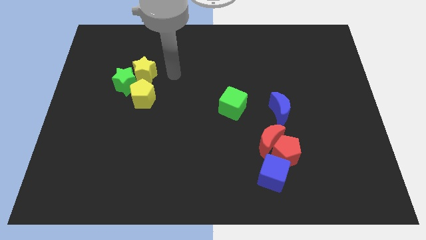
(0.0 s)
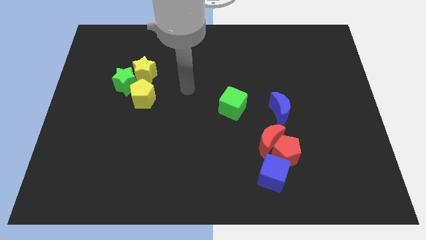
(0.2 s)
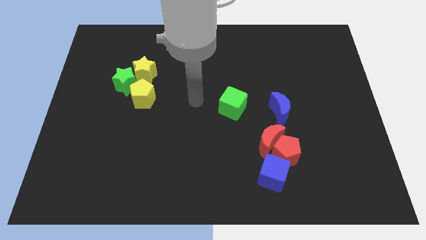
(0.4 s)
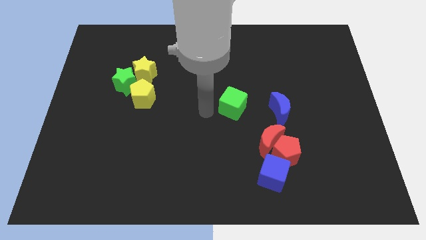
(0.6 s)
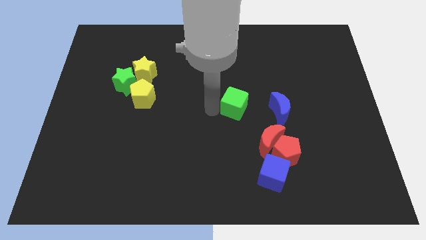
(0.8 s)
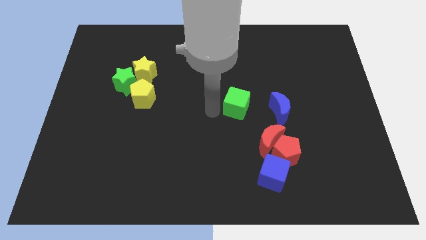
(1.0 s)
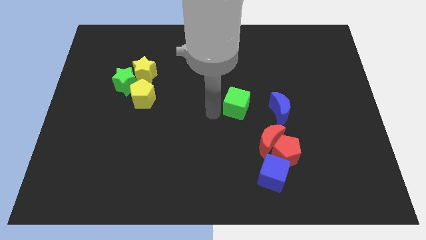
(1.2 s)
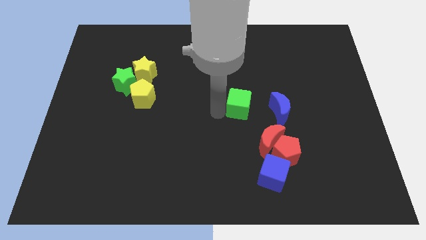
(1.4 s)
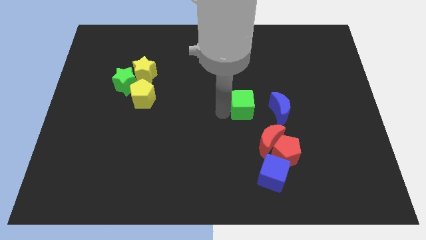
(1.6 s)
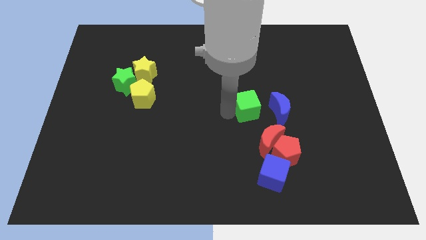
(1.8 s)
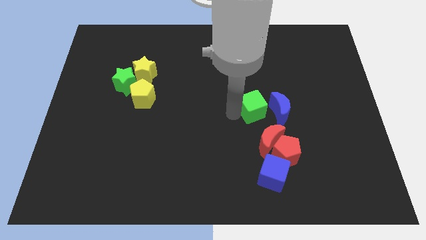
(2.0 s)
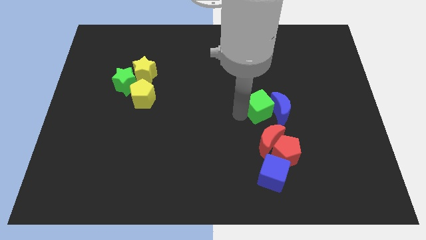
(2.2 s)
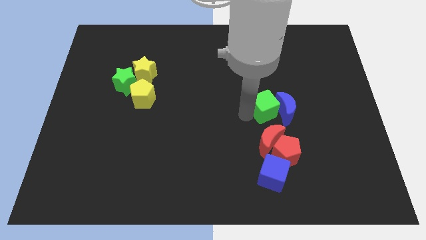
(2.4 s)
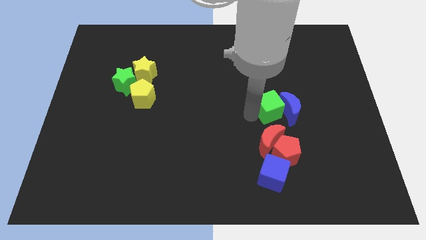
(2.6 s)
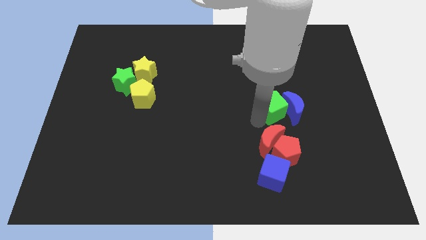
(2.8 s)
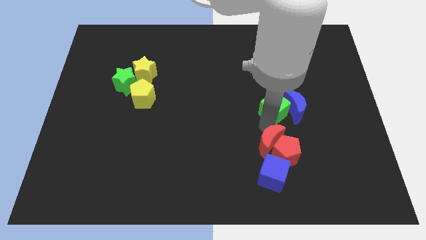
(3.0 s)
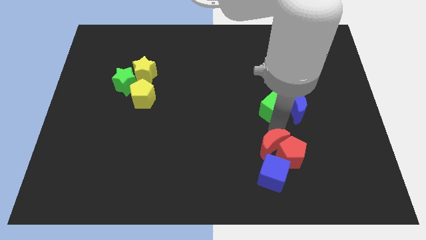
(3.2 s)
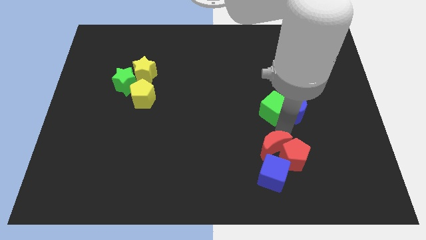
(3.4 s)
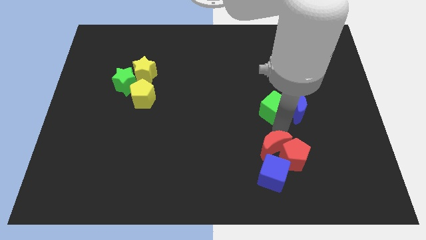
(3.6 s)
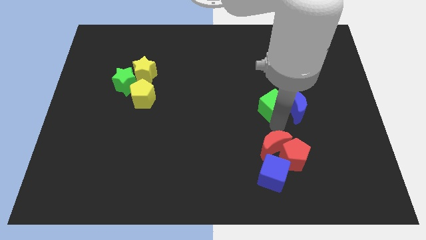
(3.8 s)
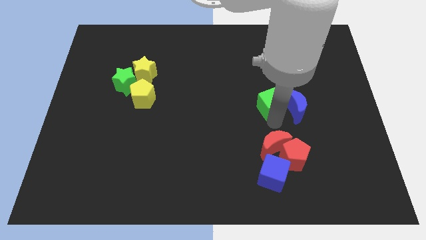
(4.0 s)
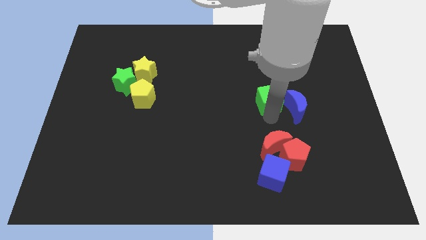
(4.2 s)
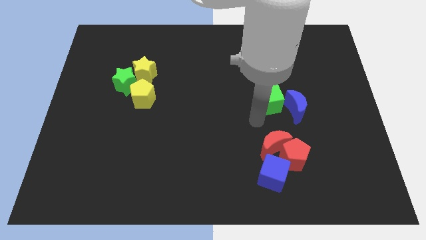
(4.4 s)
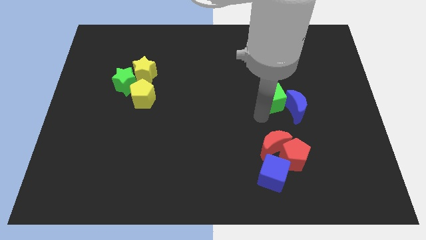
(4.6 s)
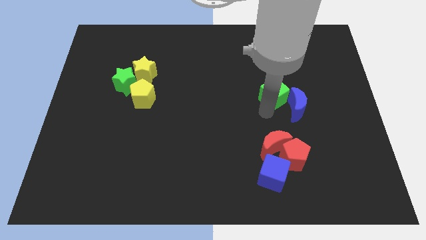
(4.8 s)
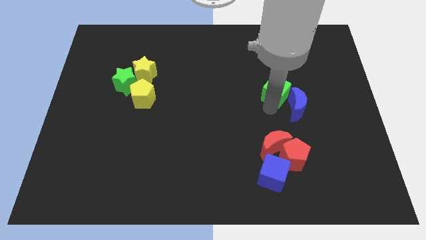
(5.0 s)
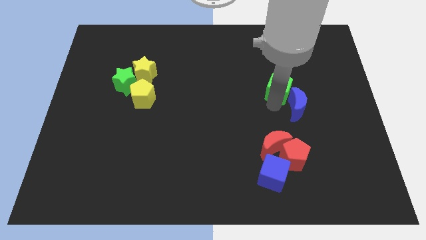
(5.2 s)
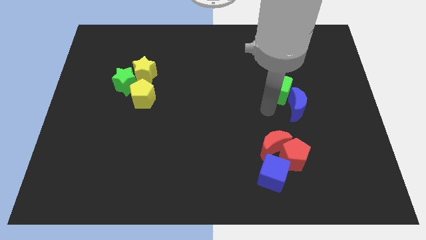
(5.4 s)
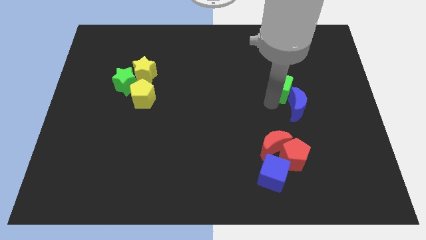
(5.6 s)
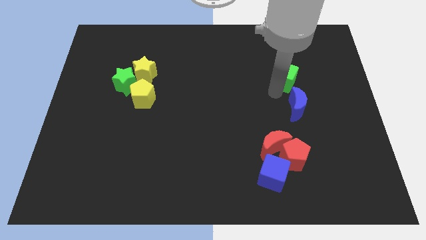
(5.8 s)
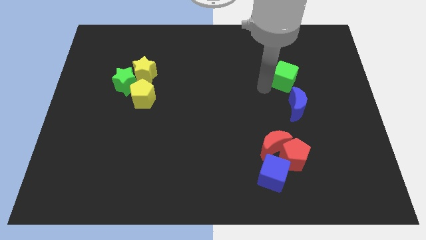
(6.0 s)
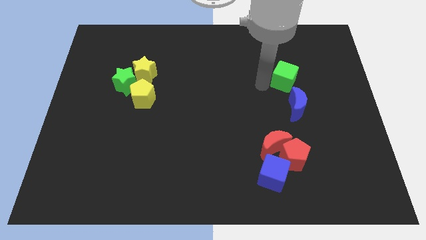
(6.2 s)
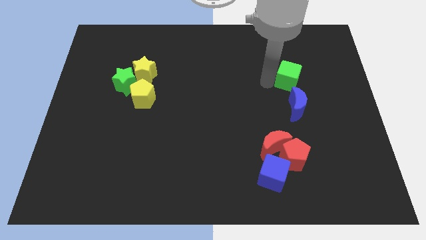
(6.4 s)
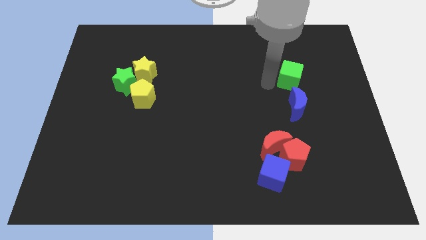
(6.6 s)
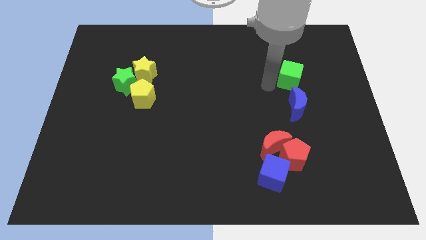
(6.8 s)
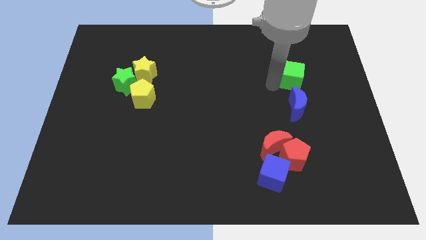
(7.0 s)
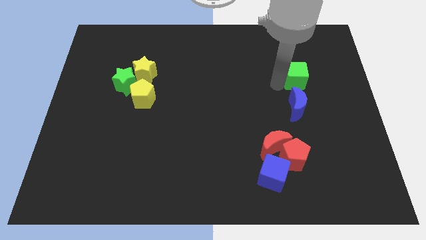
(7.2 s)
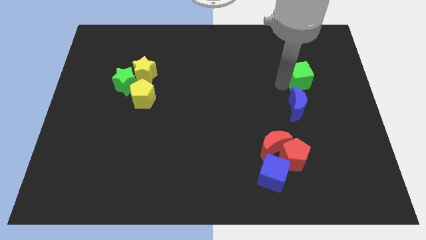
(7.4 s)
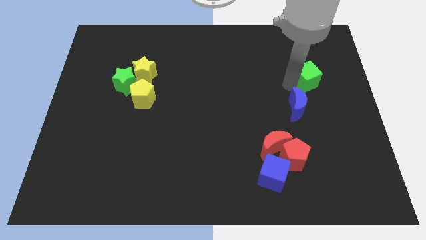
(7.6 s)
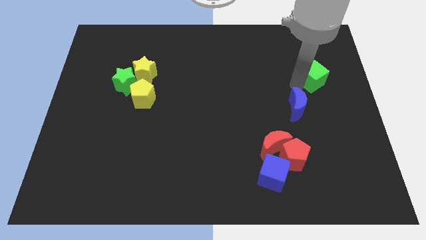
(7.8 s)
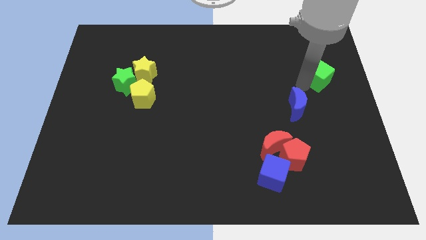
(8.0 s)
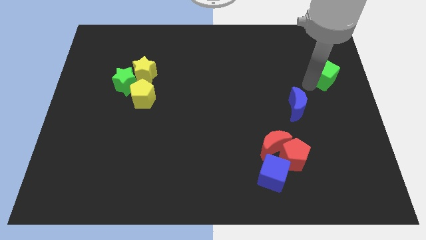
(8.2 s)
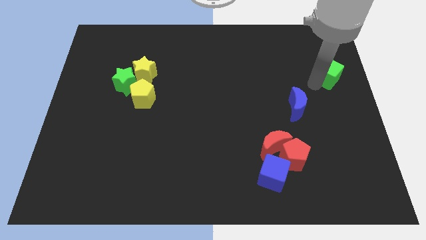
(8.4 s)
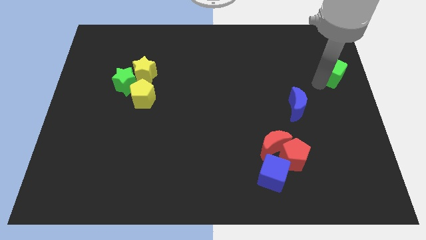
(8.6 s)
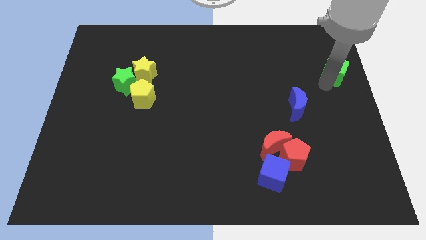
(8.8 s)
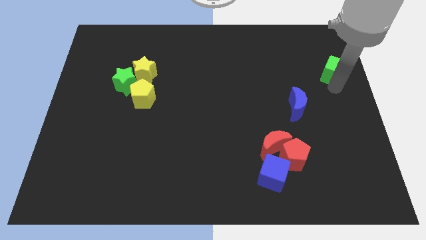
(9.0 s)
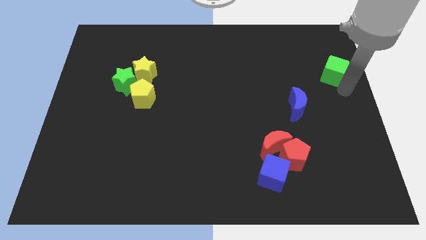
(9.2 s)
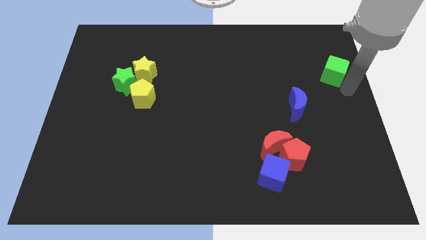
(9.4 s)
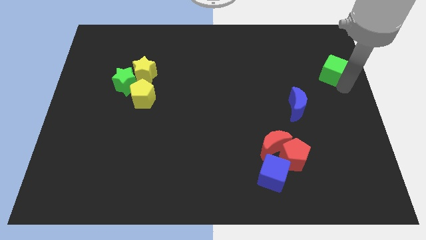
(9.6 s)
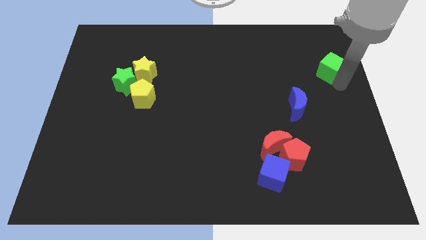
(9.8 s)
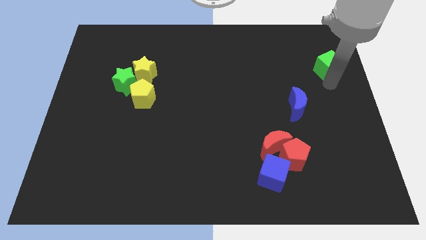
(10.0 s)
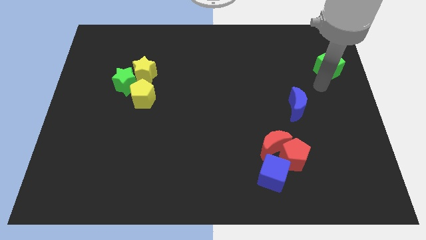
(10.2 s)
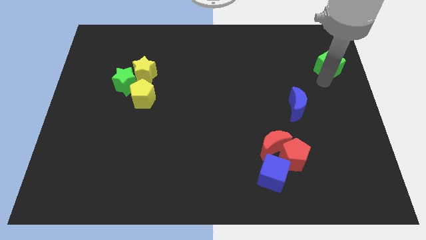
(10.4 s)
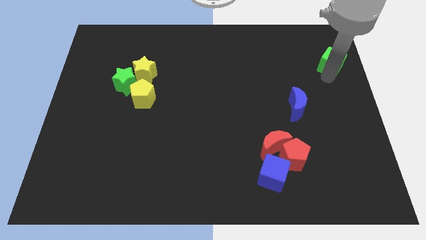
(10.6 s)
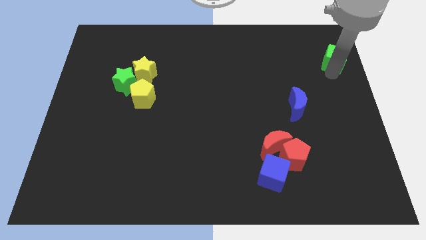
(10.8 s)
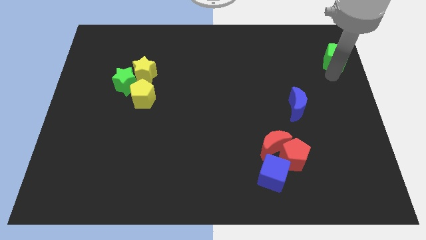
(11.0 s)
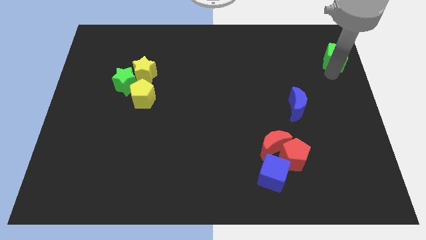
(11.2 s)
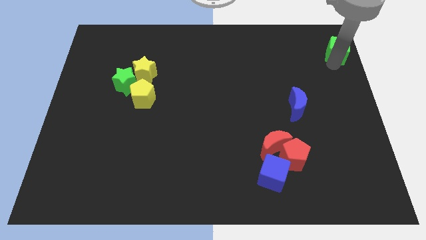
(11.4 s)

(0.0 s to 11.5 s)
slide the green cube to the top right corner

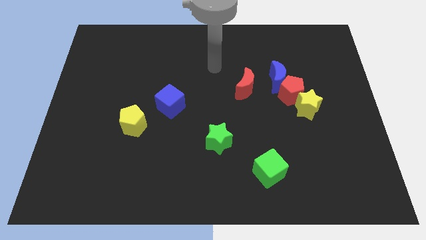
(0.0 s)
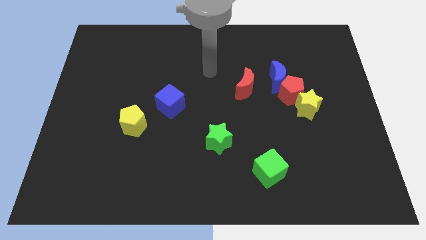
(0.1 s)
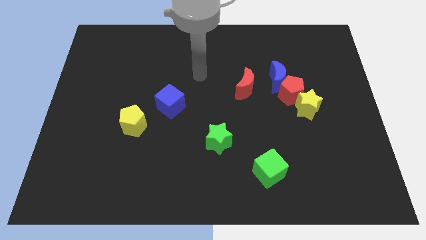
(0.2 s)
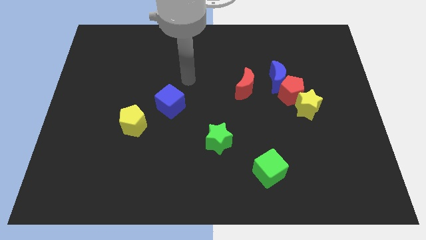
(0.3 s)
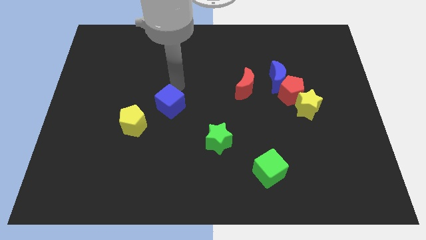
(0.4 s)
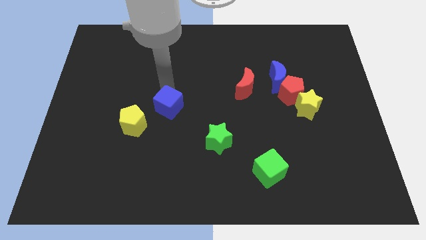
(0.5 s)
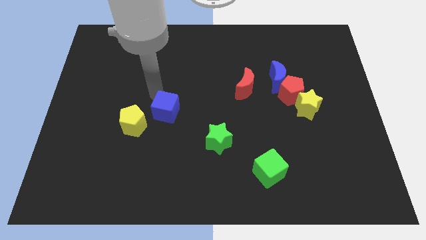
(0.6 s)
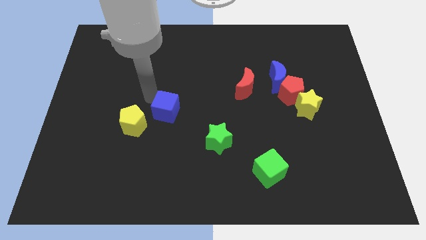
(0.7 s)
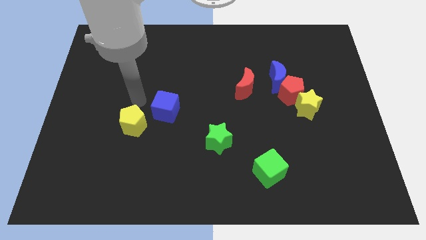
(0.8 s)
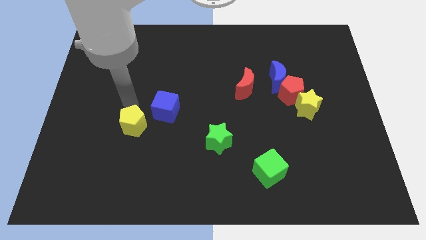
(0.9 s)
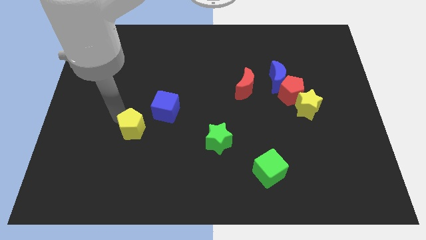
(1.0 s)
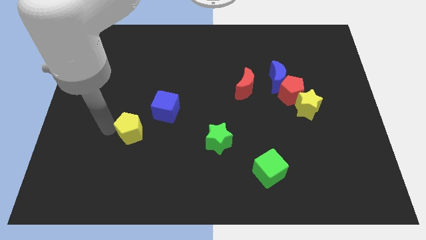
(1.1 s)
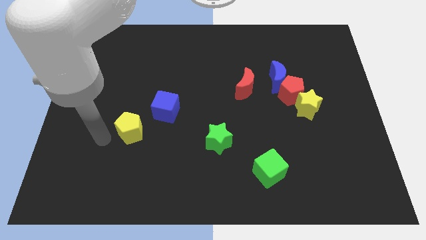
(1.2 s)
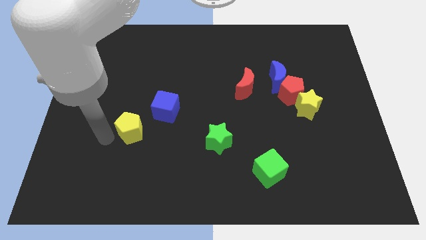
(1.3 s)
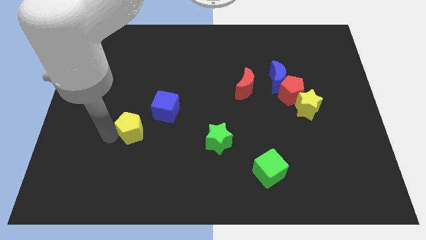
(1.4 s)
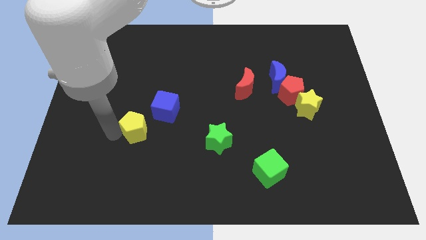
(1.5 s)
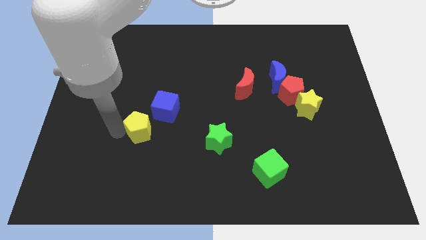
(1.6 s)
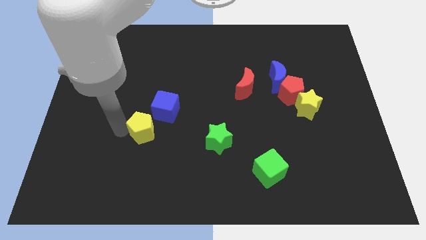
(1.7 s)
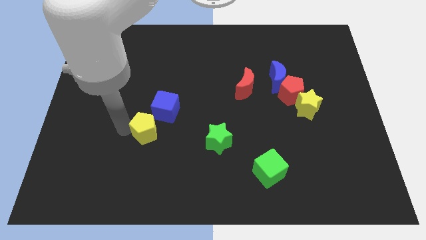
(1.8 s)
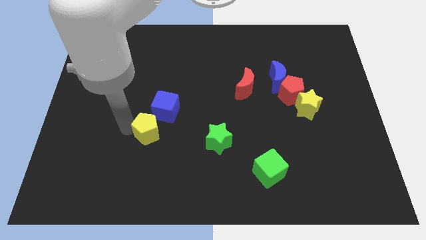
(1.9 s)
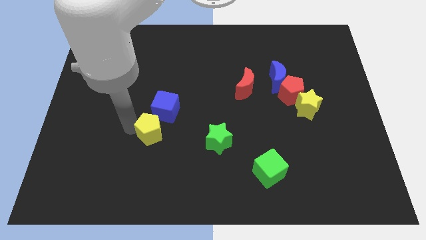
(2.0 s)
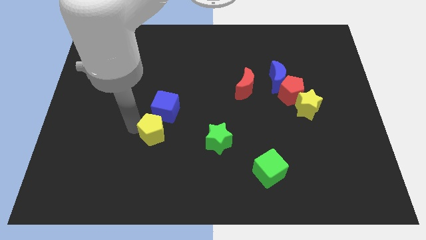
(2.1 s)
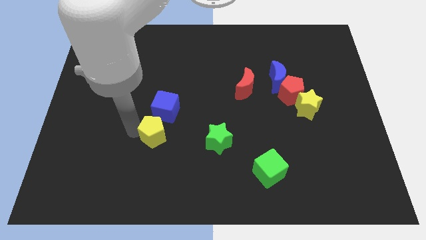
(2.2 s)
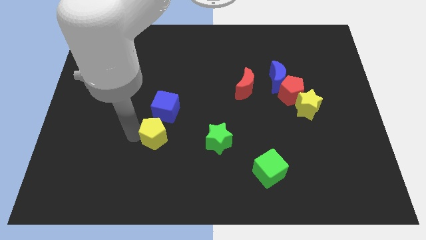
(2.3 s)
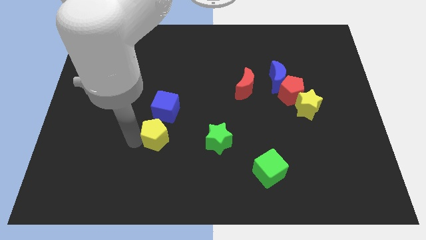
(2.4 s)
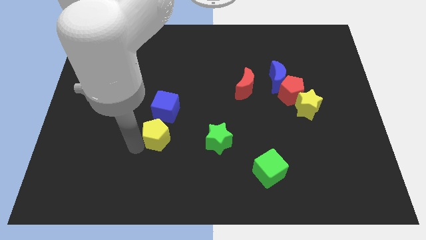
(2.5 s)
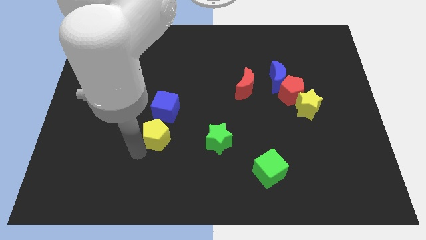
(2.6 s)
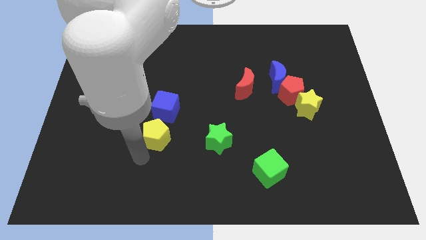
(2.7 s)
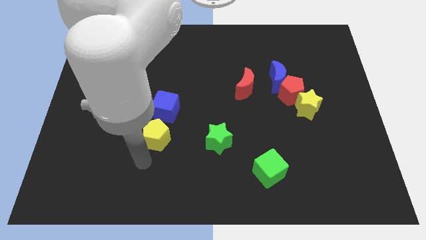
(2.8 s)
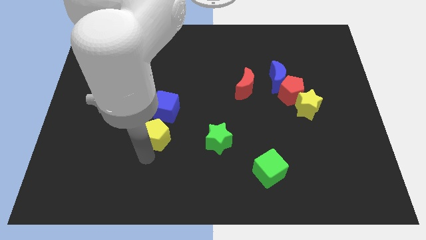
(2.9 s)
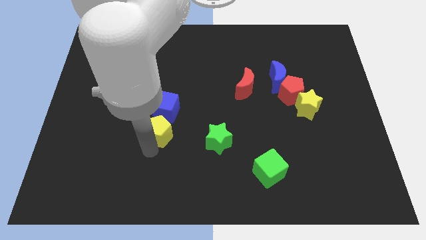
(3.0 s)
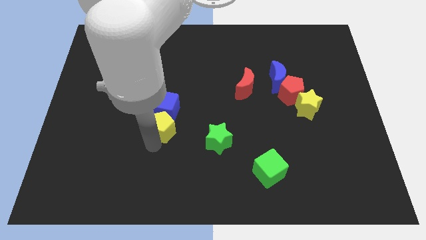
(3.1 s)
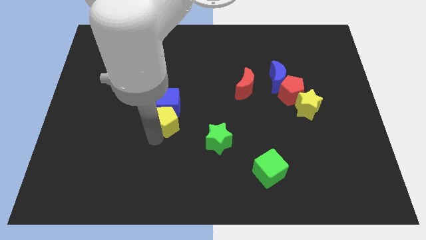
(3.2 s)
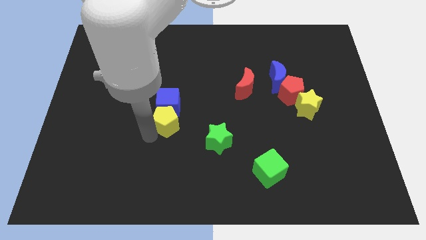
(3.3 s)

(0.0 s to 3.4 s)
slide the yellow pentagon to the center
